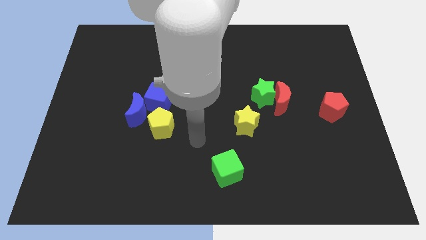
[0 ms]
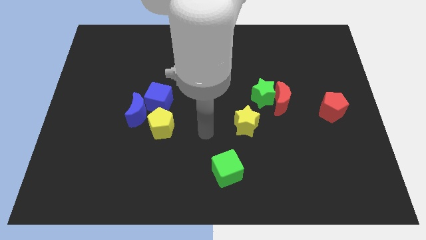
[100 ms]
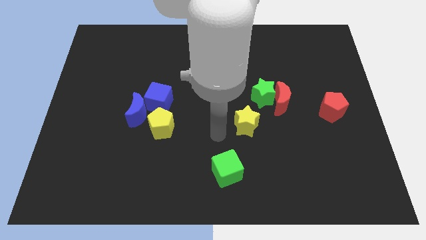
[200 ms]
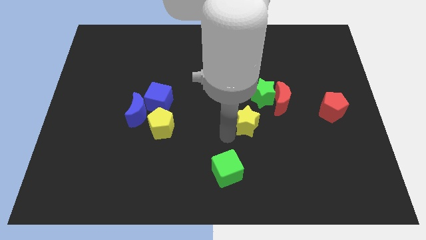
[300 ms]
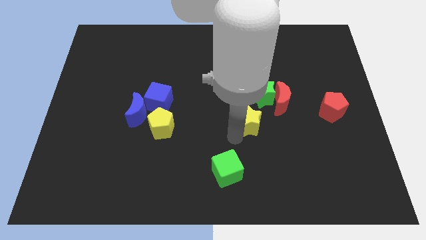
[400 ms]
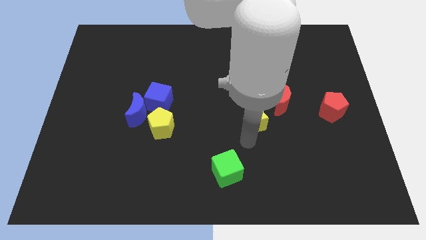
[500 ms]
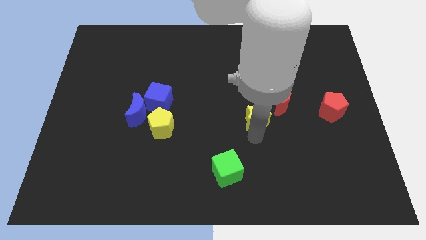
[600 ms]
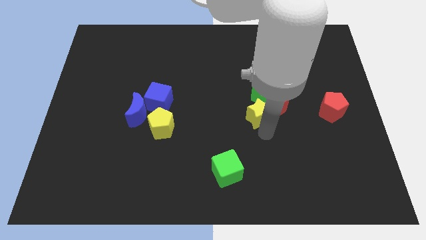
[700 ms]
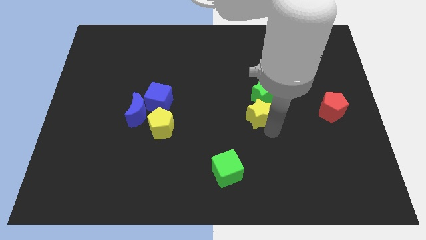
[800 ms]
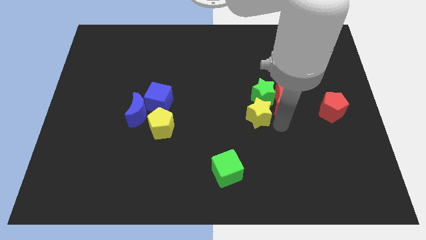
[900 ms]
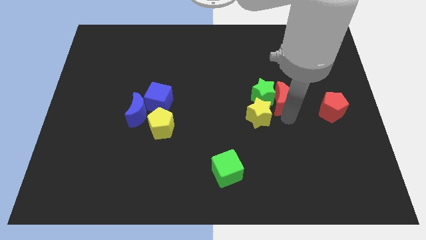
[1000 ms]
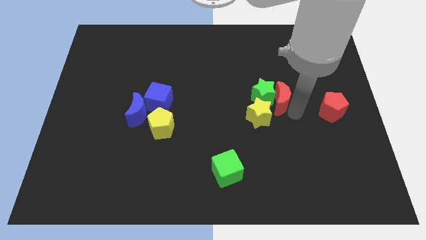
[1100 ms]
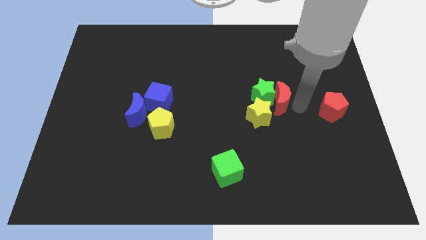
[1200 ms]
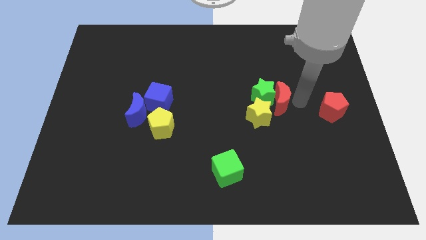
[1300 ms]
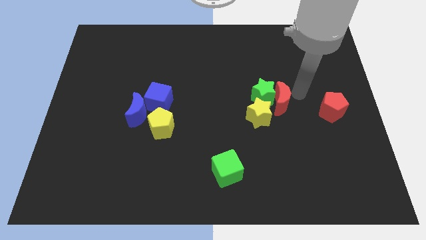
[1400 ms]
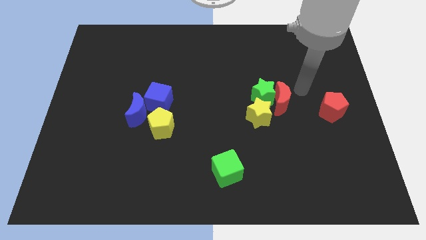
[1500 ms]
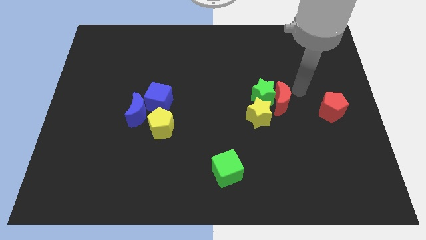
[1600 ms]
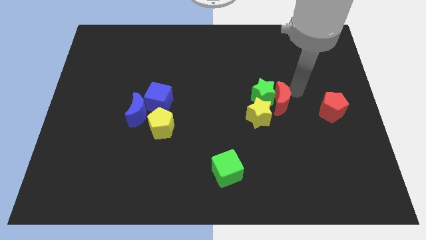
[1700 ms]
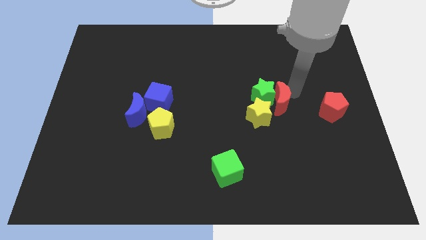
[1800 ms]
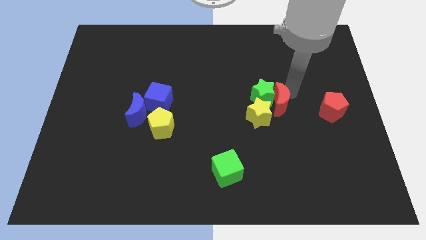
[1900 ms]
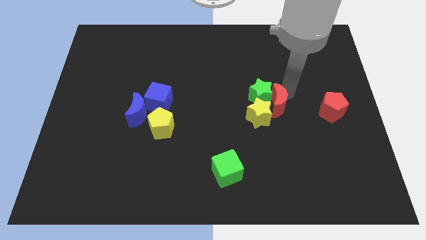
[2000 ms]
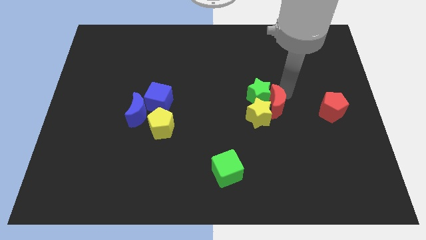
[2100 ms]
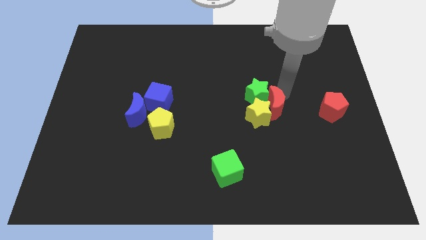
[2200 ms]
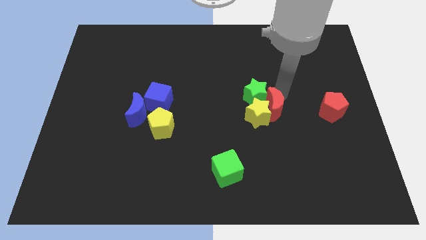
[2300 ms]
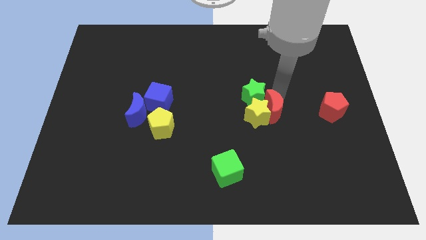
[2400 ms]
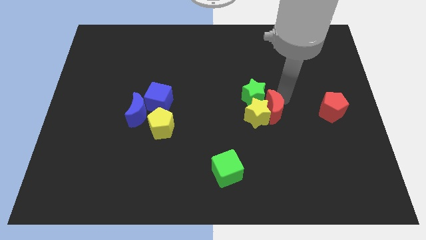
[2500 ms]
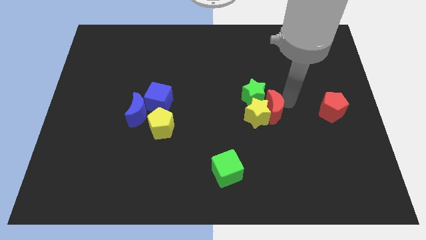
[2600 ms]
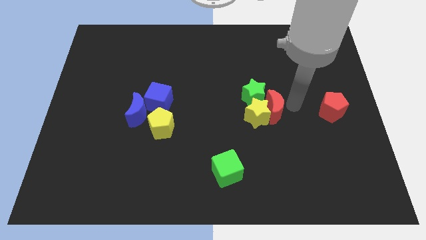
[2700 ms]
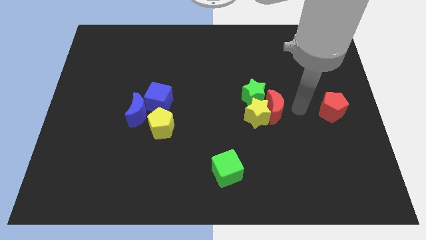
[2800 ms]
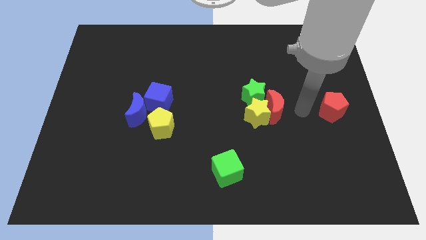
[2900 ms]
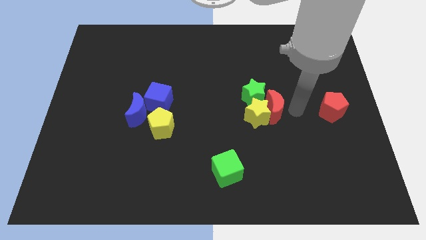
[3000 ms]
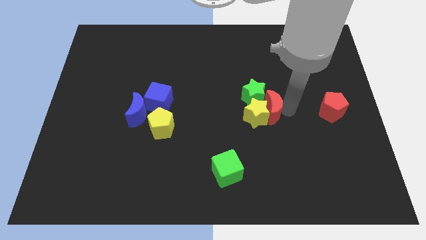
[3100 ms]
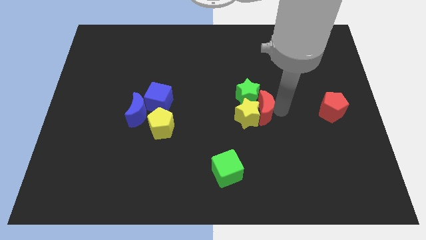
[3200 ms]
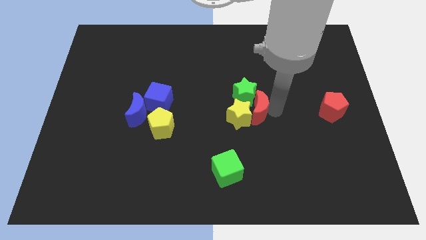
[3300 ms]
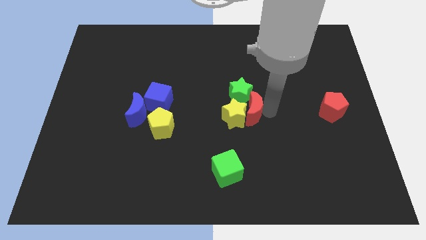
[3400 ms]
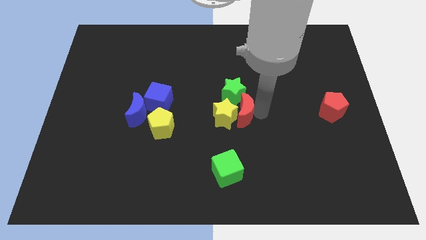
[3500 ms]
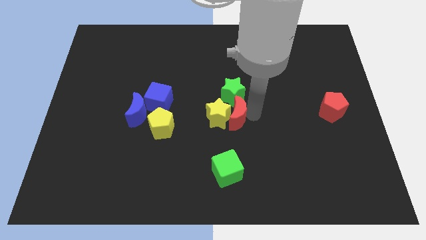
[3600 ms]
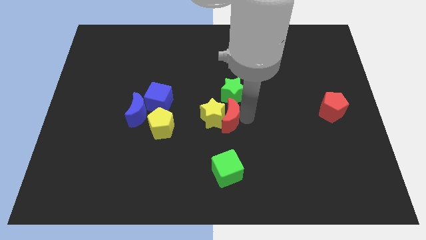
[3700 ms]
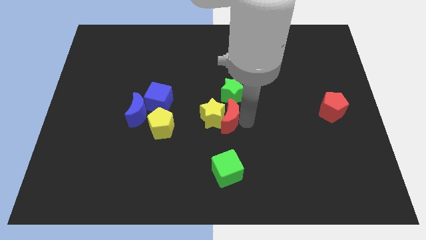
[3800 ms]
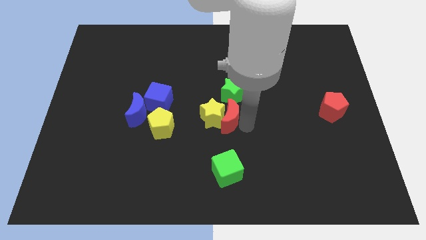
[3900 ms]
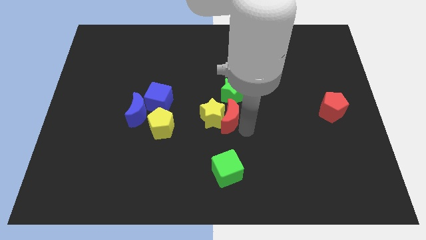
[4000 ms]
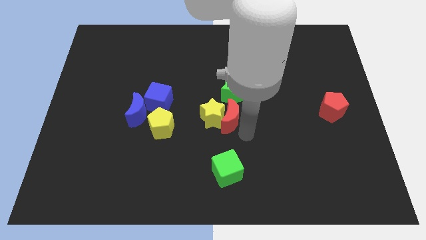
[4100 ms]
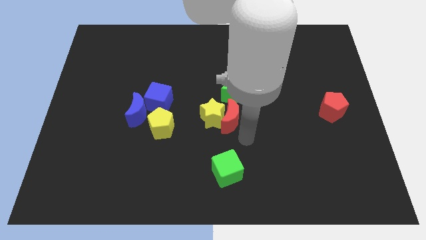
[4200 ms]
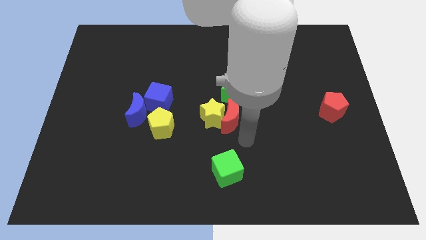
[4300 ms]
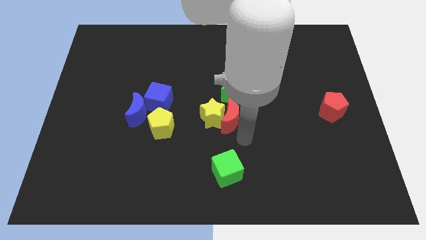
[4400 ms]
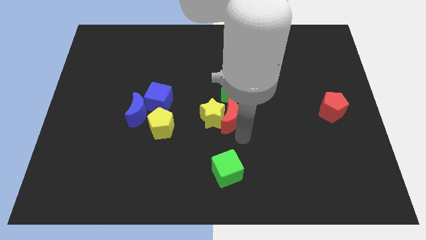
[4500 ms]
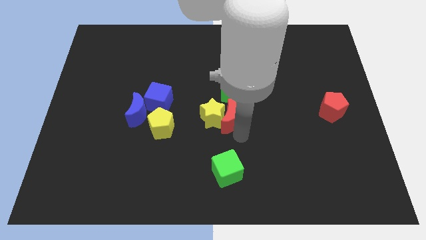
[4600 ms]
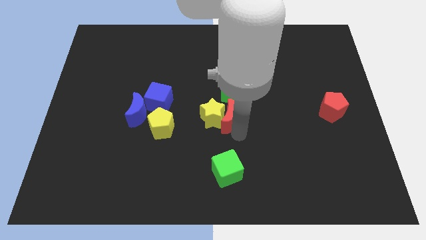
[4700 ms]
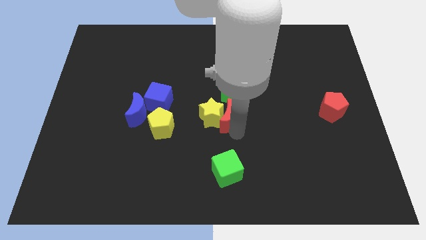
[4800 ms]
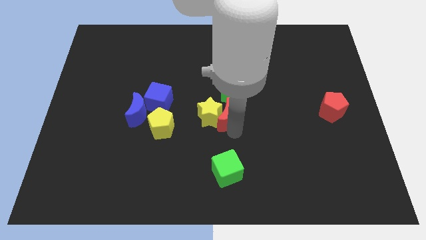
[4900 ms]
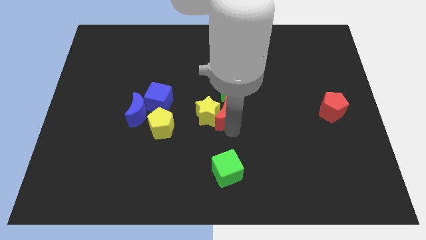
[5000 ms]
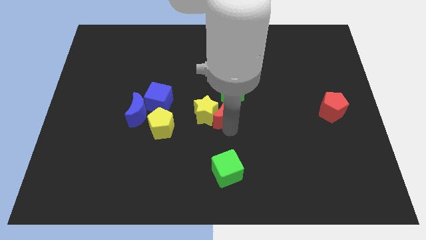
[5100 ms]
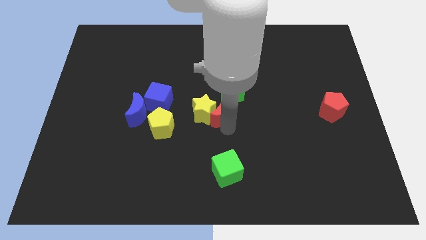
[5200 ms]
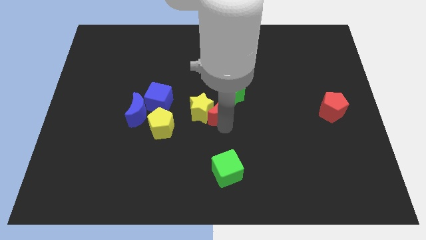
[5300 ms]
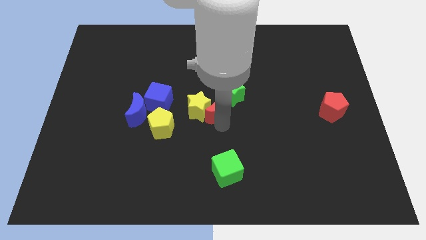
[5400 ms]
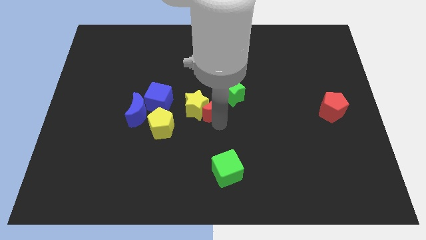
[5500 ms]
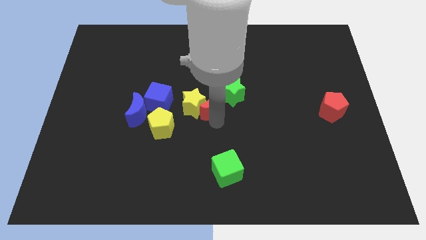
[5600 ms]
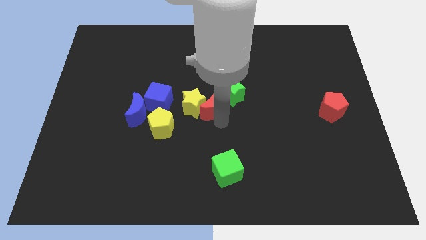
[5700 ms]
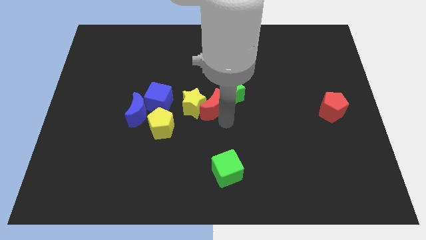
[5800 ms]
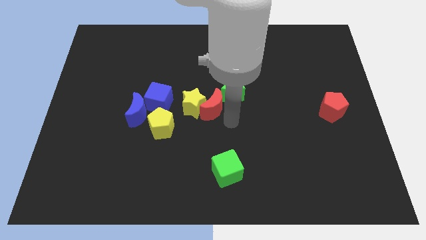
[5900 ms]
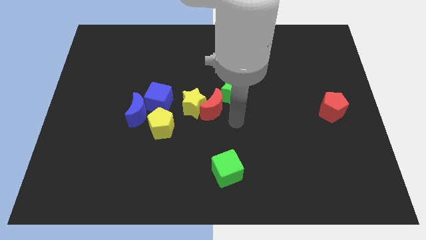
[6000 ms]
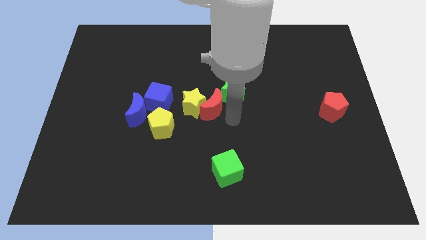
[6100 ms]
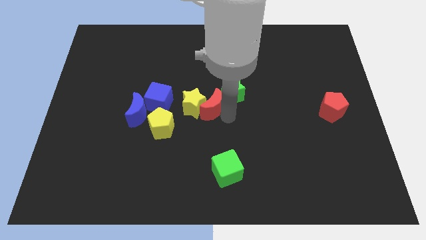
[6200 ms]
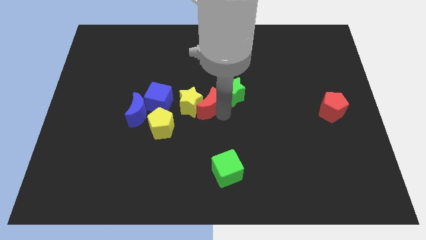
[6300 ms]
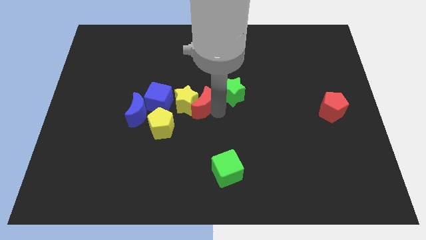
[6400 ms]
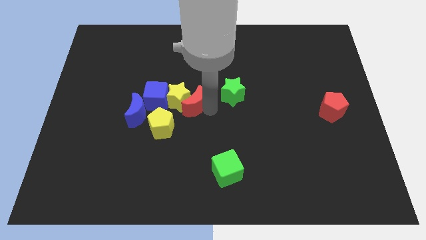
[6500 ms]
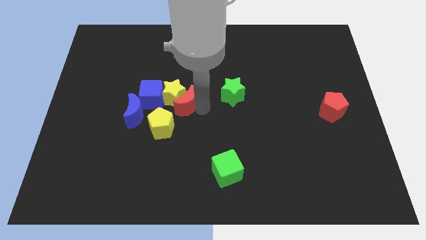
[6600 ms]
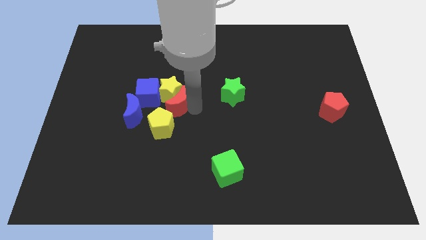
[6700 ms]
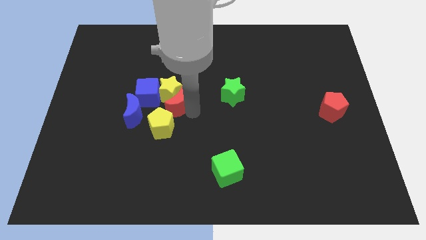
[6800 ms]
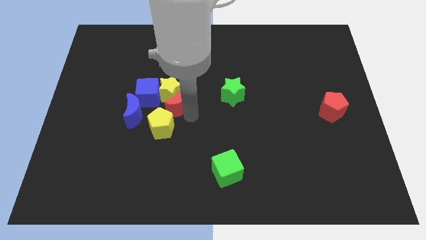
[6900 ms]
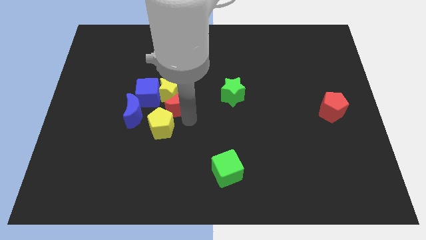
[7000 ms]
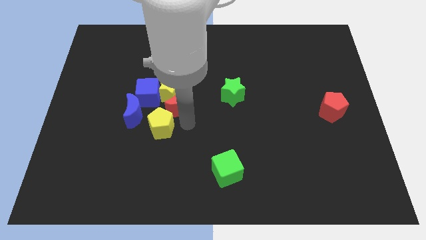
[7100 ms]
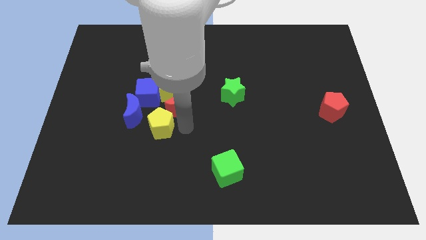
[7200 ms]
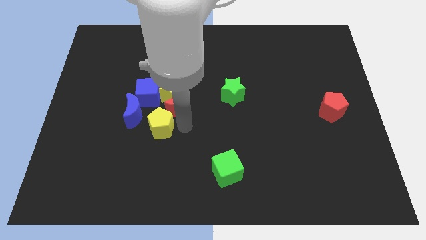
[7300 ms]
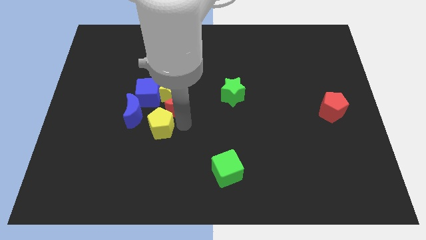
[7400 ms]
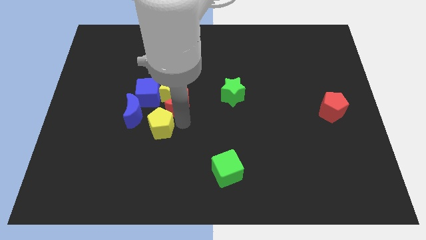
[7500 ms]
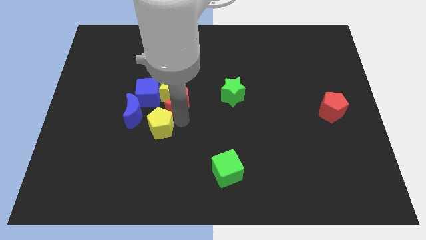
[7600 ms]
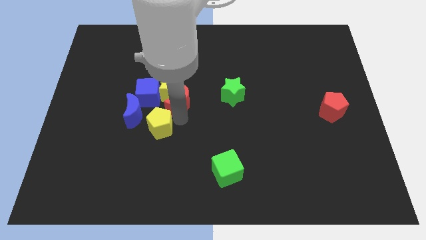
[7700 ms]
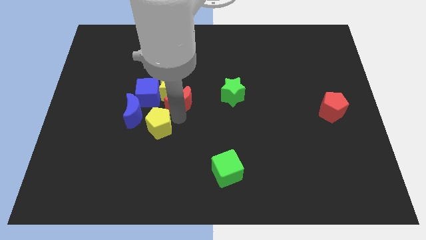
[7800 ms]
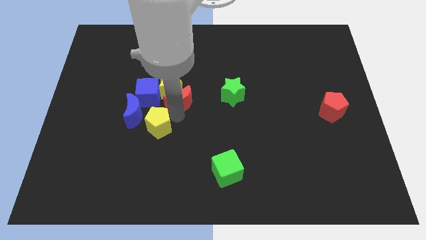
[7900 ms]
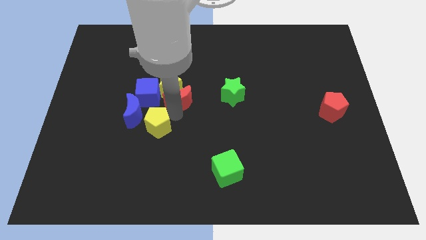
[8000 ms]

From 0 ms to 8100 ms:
put the red moon to the top right of the blue moon
